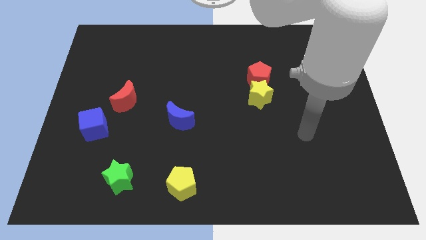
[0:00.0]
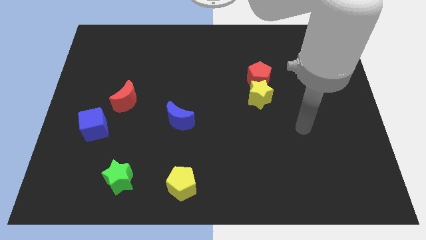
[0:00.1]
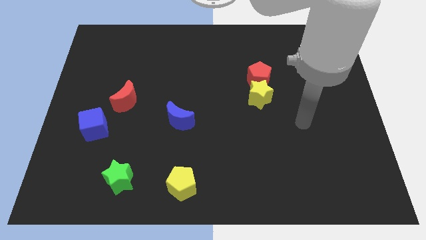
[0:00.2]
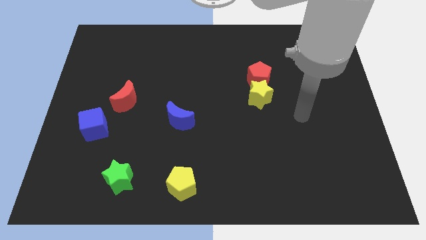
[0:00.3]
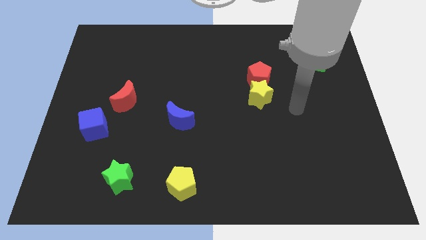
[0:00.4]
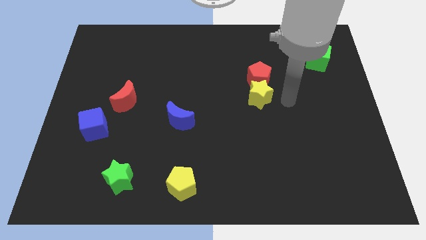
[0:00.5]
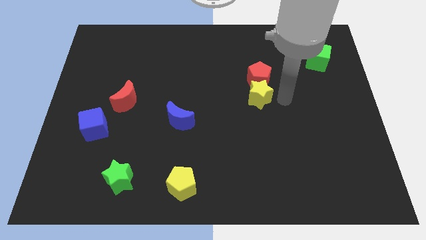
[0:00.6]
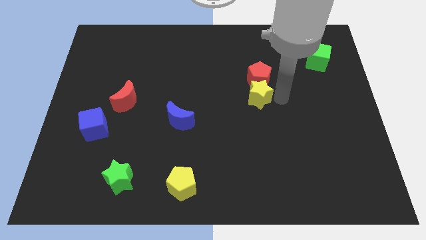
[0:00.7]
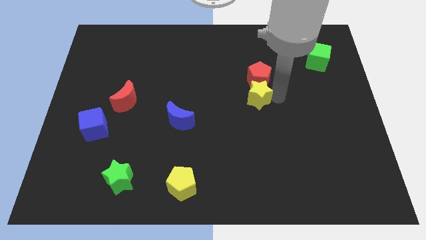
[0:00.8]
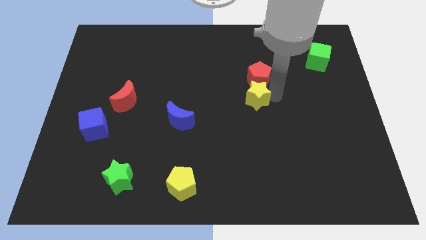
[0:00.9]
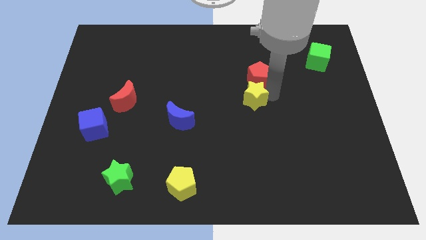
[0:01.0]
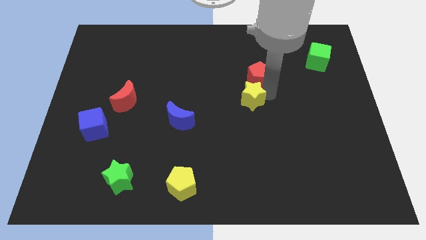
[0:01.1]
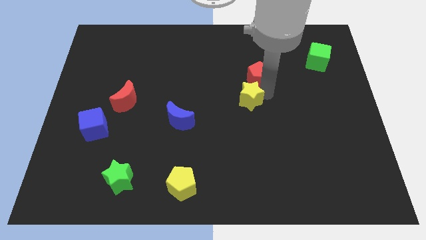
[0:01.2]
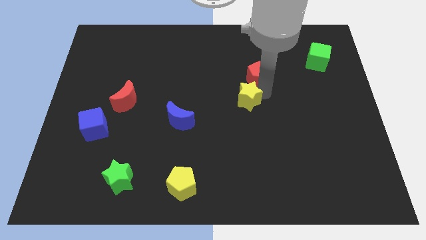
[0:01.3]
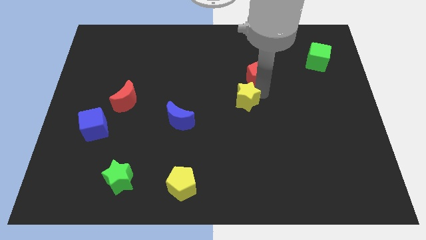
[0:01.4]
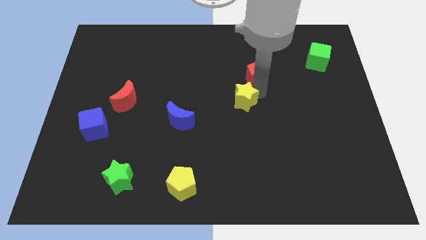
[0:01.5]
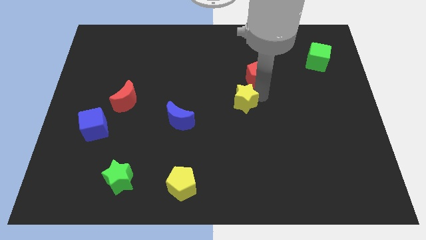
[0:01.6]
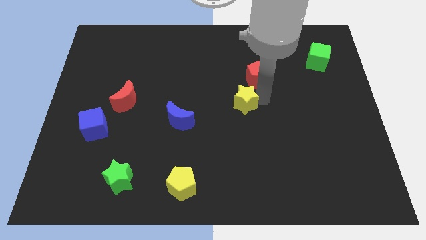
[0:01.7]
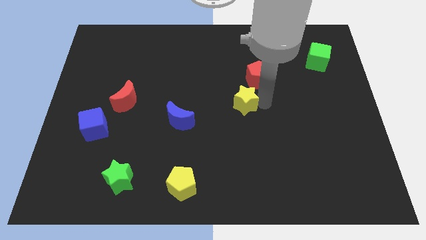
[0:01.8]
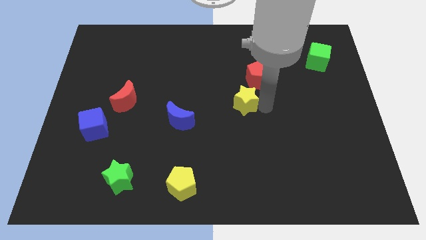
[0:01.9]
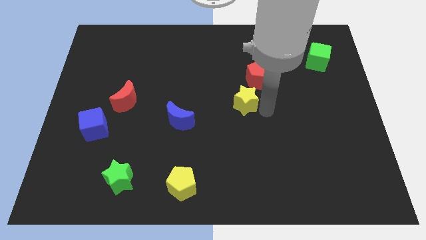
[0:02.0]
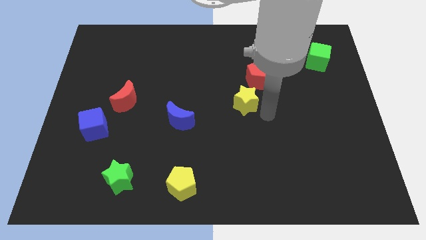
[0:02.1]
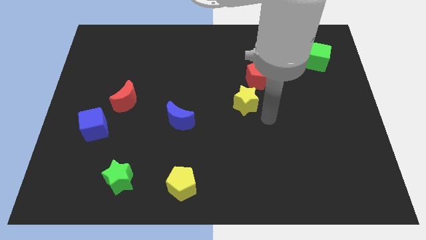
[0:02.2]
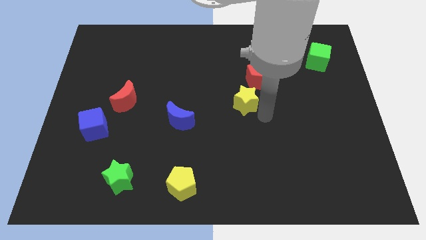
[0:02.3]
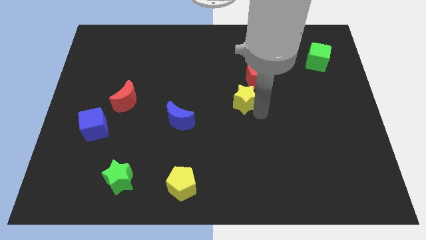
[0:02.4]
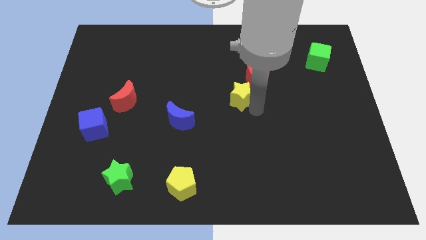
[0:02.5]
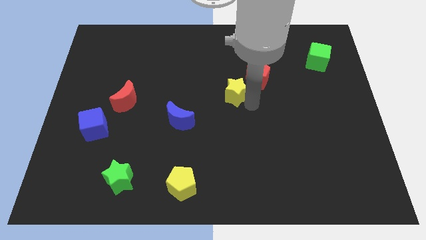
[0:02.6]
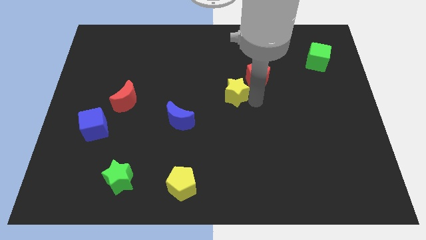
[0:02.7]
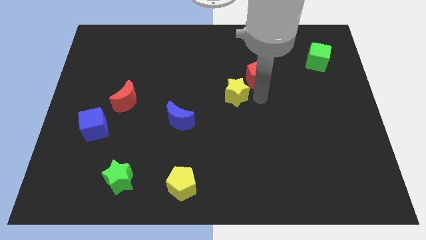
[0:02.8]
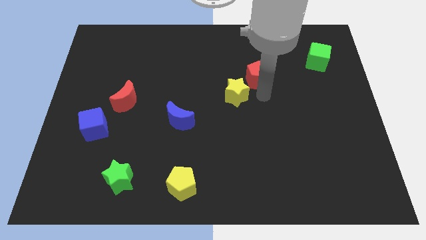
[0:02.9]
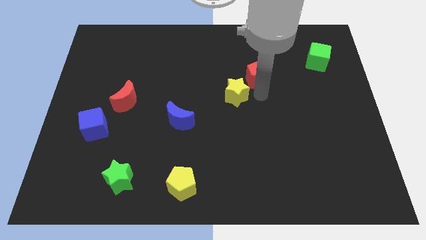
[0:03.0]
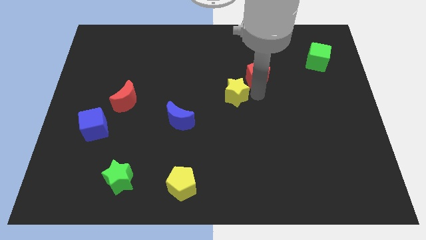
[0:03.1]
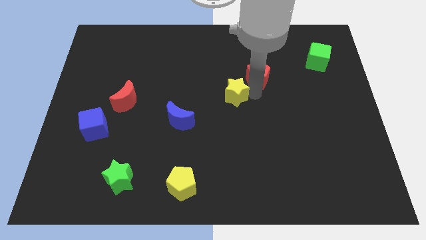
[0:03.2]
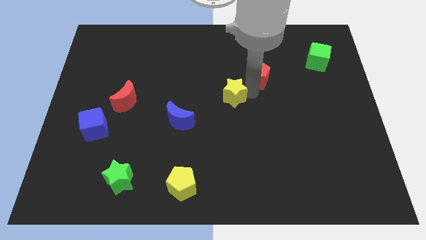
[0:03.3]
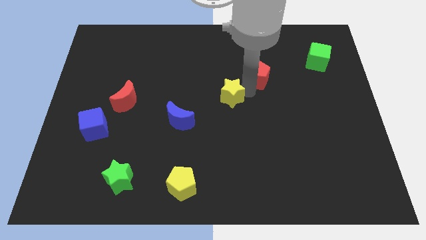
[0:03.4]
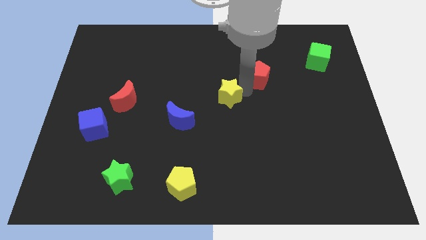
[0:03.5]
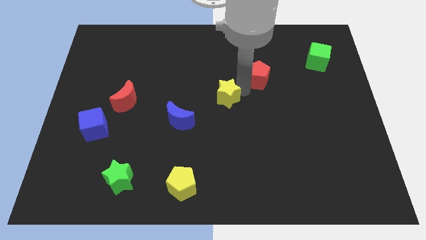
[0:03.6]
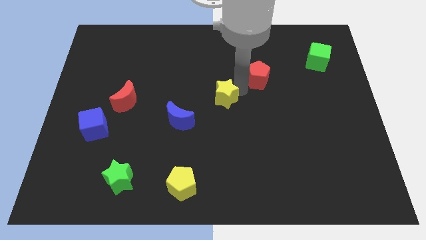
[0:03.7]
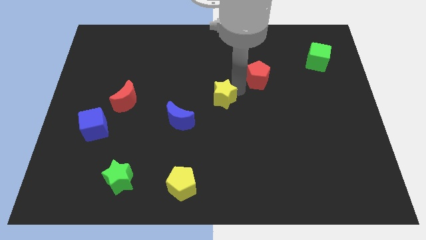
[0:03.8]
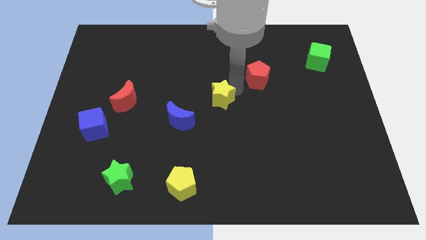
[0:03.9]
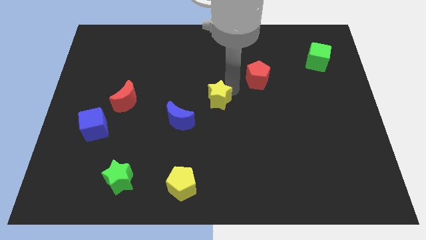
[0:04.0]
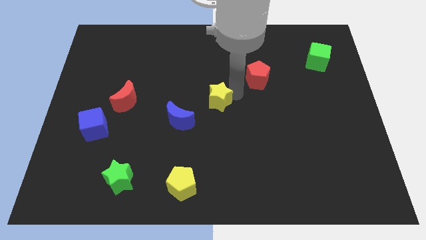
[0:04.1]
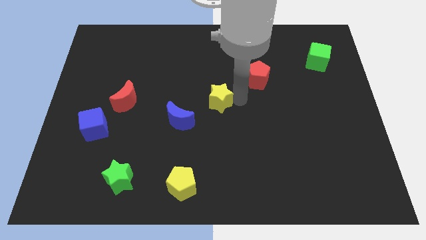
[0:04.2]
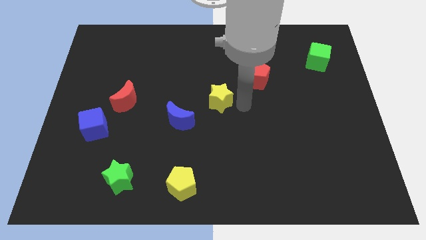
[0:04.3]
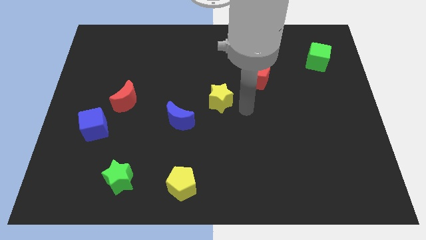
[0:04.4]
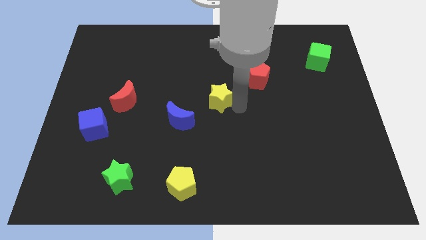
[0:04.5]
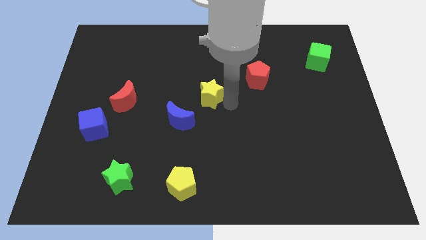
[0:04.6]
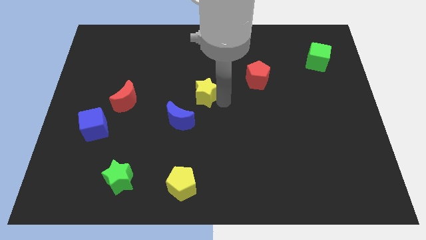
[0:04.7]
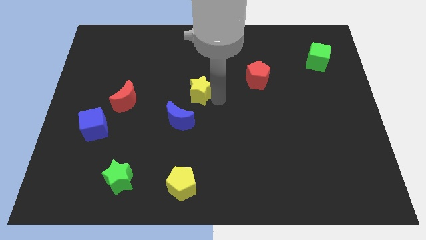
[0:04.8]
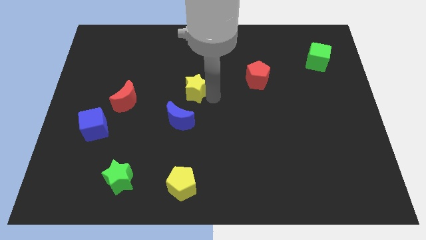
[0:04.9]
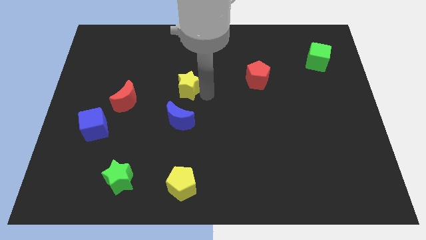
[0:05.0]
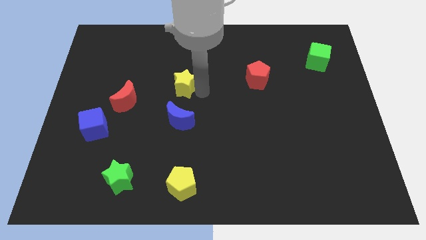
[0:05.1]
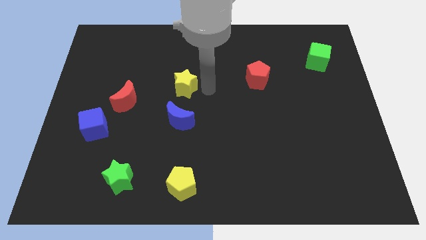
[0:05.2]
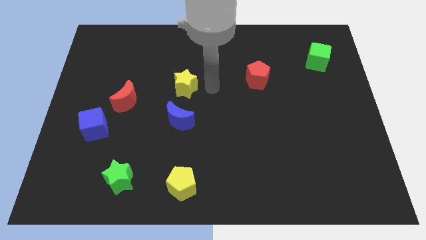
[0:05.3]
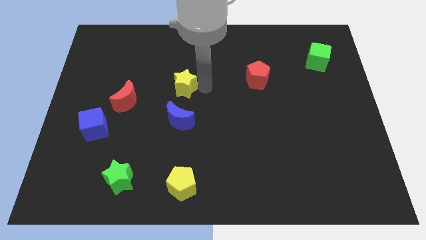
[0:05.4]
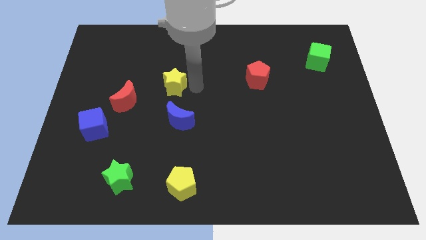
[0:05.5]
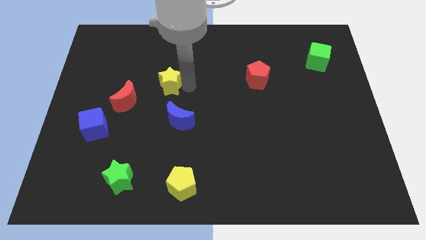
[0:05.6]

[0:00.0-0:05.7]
put the yellow star to the top right of the red moon
